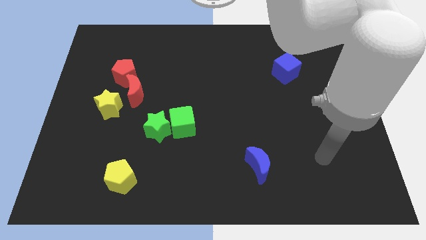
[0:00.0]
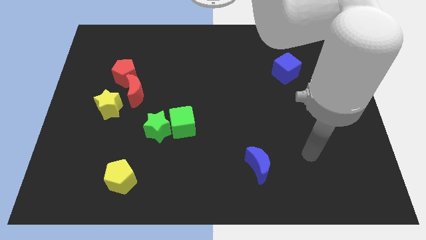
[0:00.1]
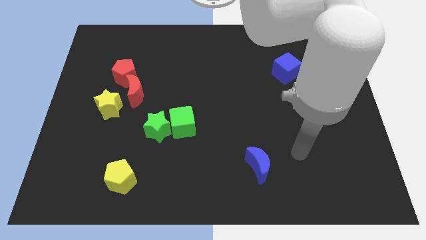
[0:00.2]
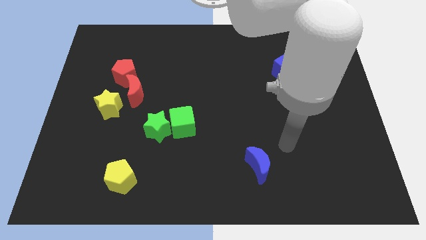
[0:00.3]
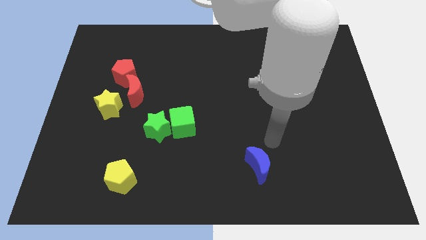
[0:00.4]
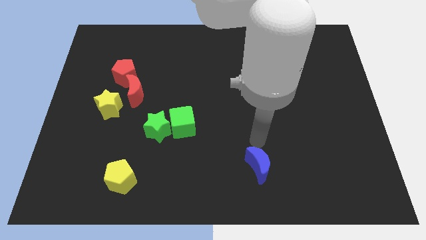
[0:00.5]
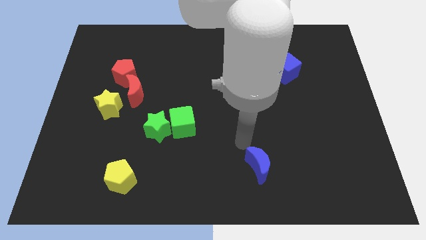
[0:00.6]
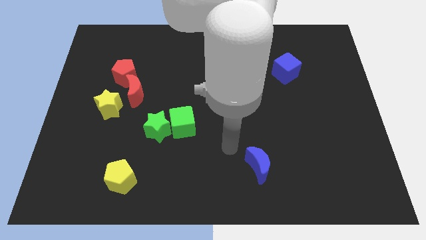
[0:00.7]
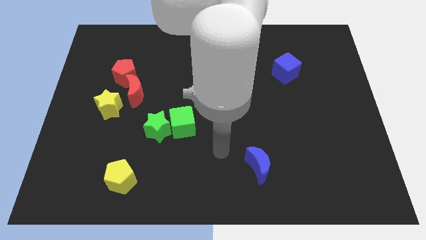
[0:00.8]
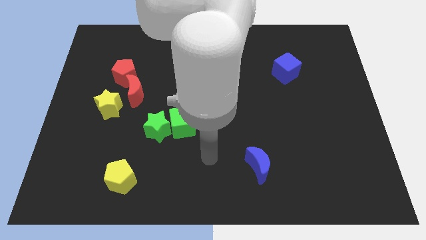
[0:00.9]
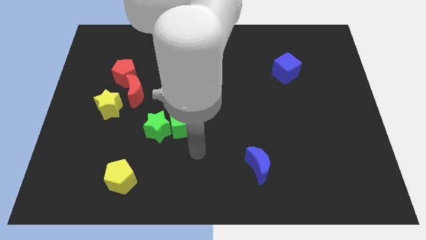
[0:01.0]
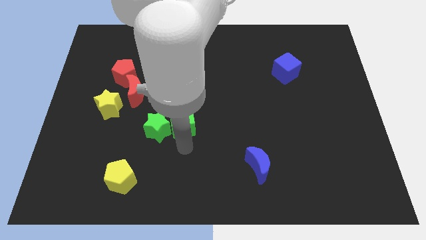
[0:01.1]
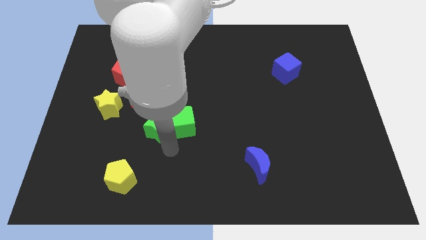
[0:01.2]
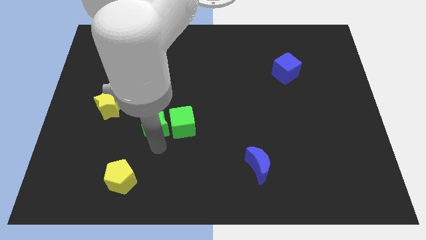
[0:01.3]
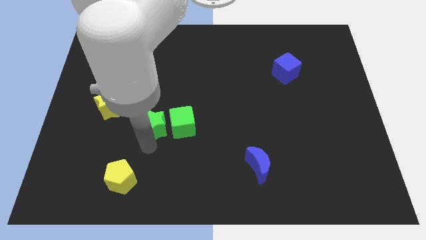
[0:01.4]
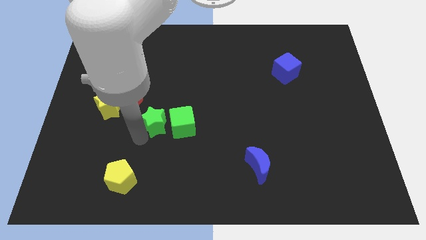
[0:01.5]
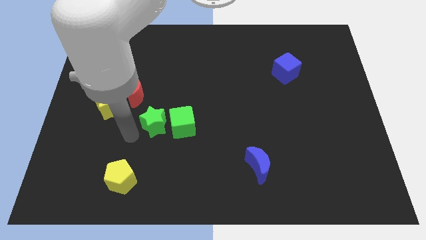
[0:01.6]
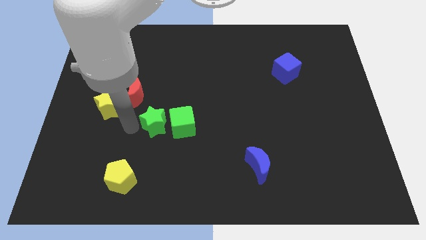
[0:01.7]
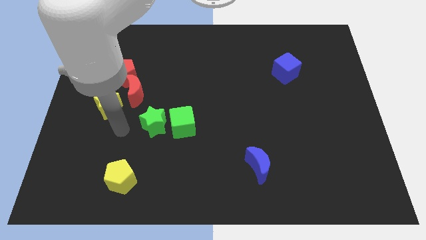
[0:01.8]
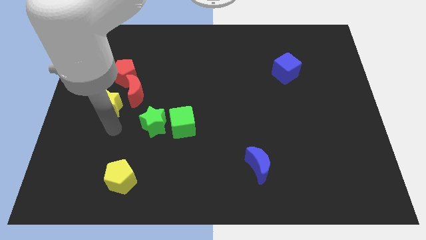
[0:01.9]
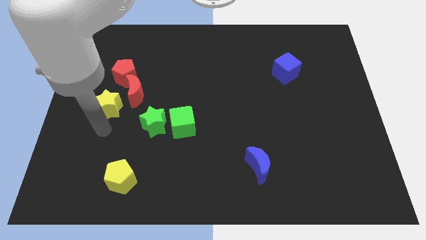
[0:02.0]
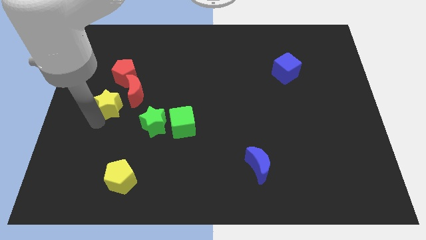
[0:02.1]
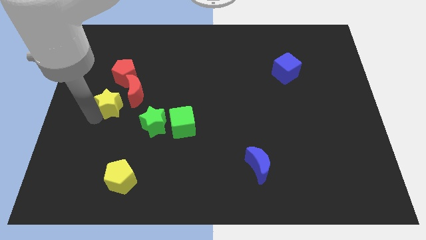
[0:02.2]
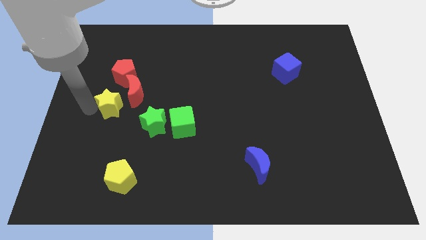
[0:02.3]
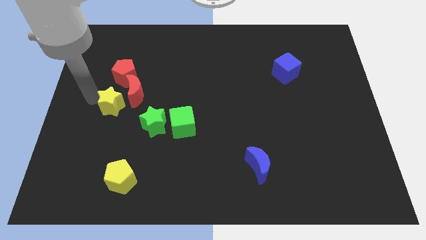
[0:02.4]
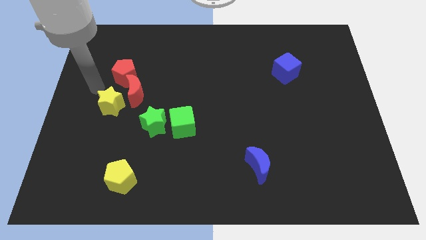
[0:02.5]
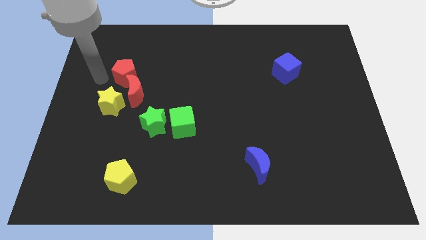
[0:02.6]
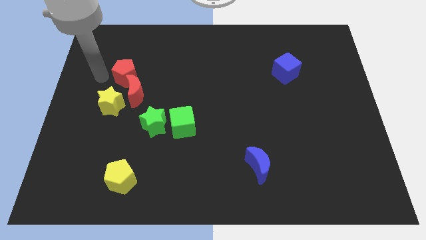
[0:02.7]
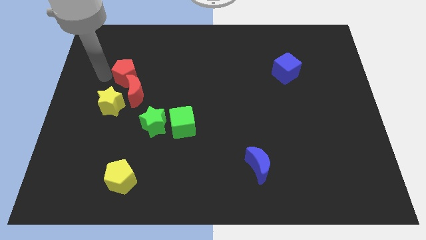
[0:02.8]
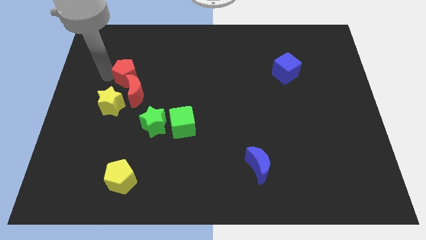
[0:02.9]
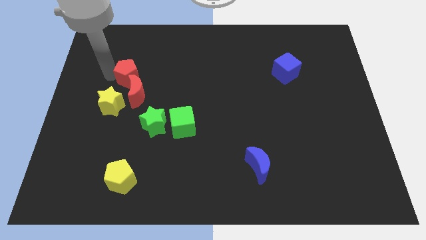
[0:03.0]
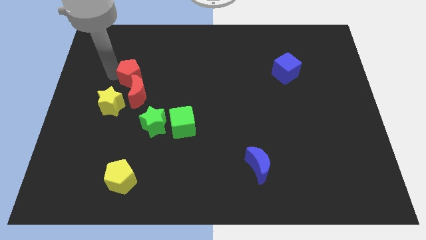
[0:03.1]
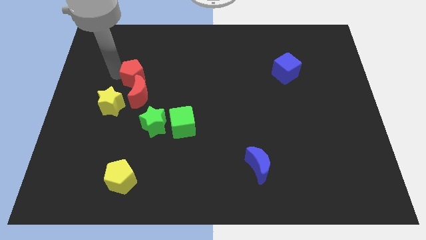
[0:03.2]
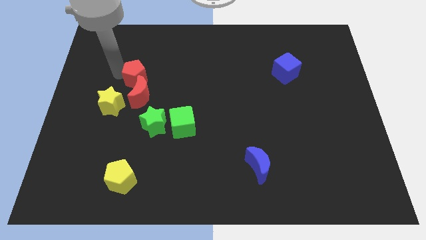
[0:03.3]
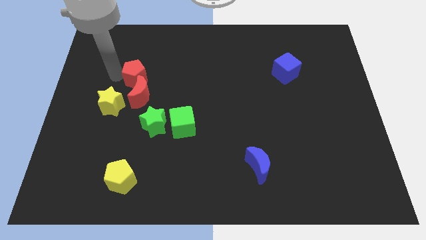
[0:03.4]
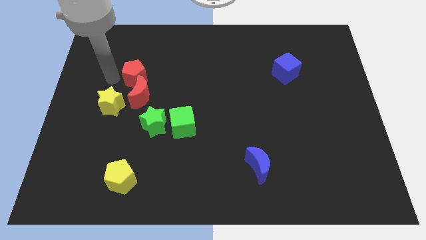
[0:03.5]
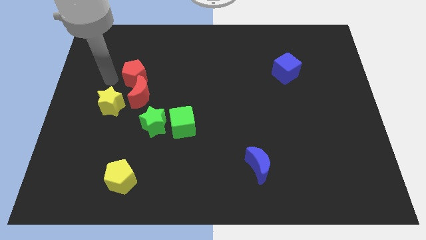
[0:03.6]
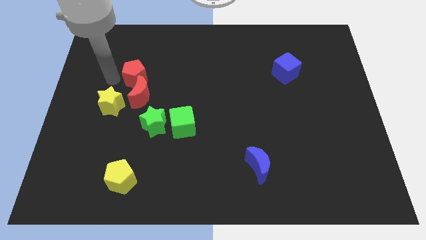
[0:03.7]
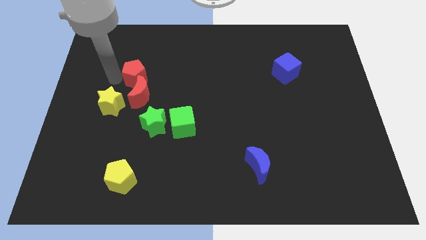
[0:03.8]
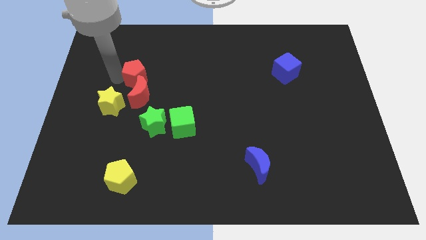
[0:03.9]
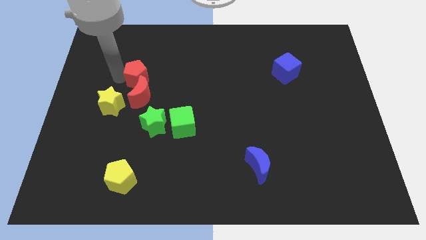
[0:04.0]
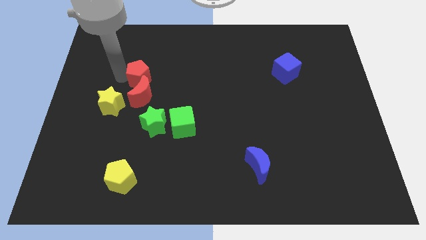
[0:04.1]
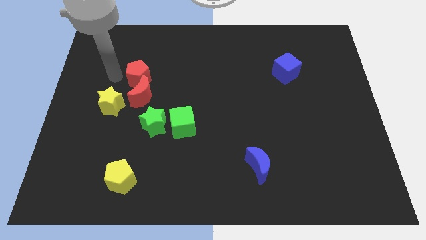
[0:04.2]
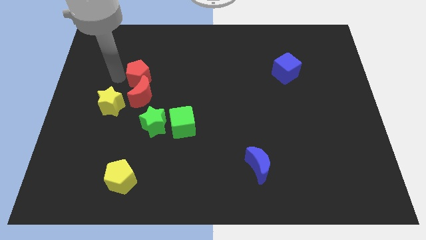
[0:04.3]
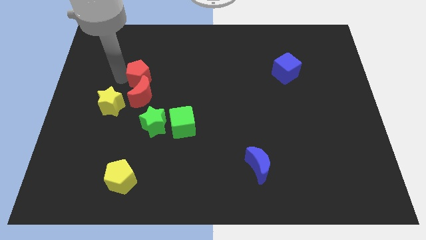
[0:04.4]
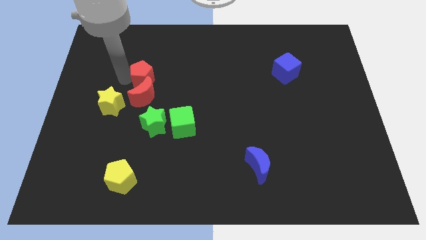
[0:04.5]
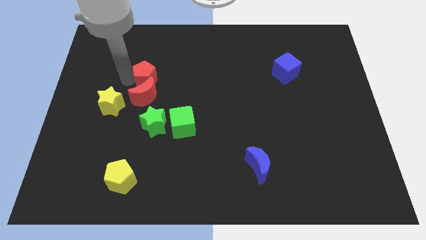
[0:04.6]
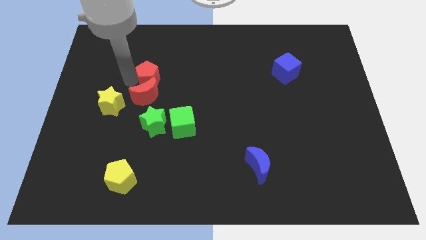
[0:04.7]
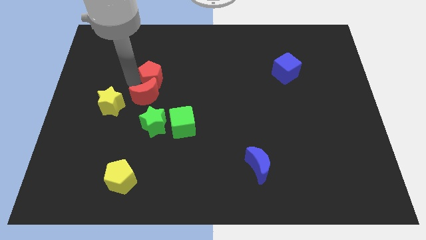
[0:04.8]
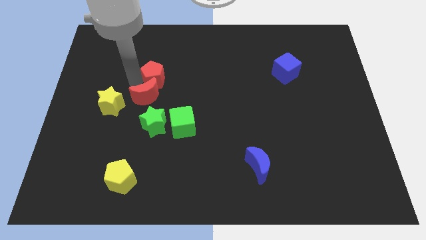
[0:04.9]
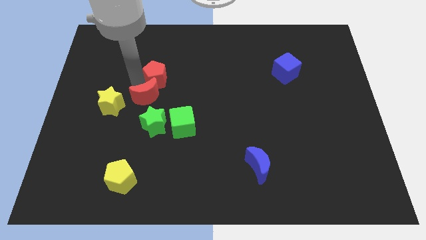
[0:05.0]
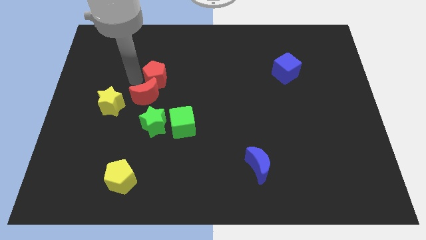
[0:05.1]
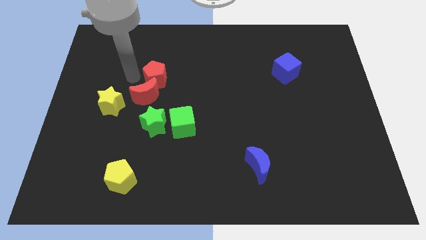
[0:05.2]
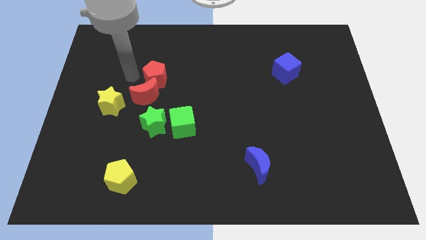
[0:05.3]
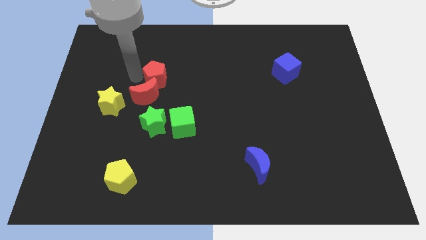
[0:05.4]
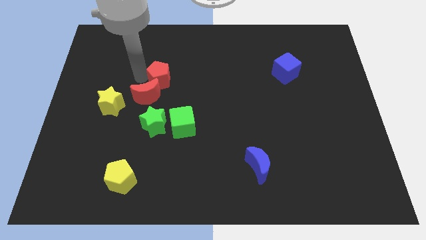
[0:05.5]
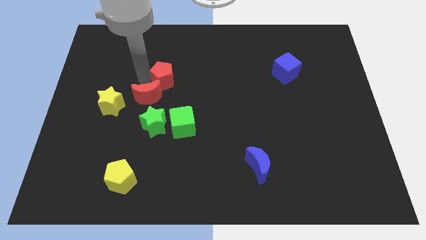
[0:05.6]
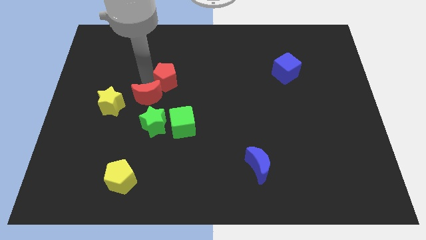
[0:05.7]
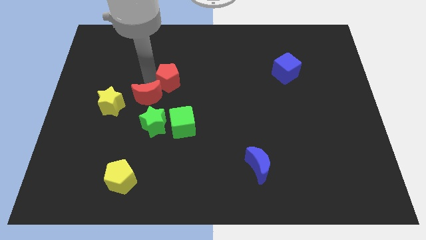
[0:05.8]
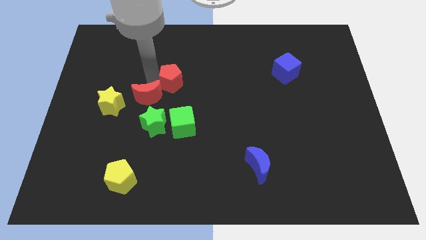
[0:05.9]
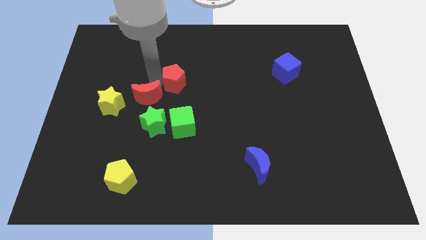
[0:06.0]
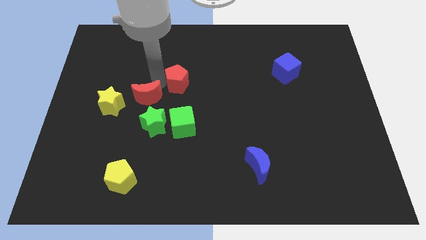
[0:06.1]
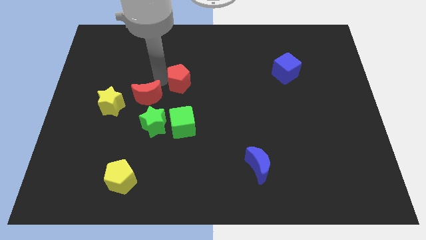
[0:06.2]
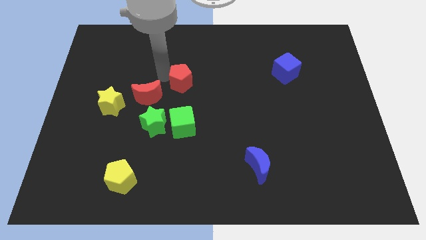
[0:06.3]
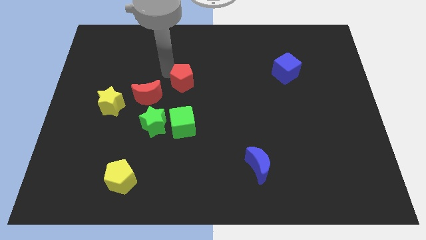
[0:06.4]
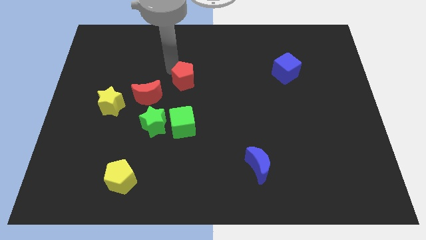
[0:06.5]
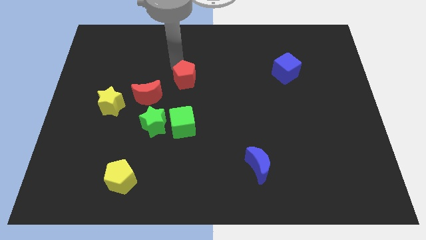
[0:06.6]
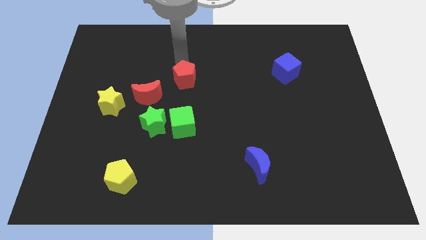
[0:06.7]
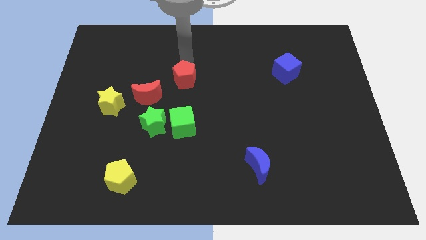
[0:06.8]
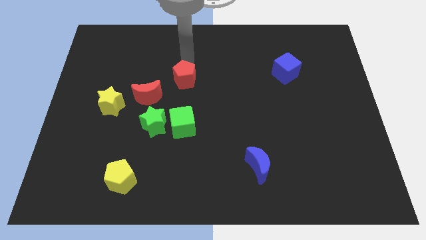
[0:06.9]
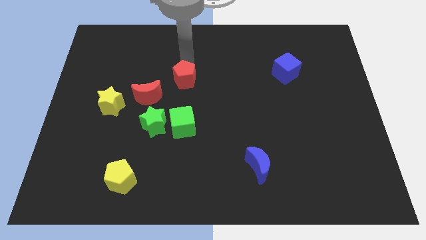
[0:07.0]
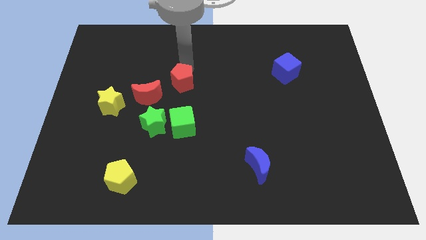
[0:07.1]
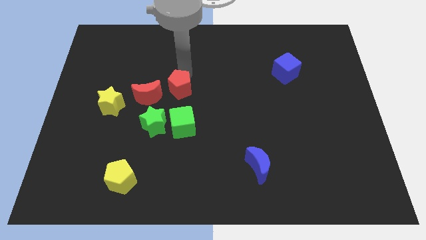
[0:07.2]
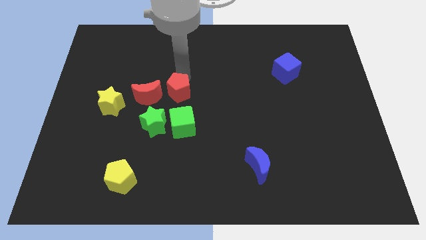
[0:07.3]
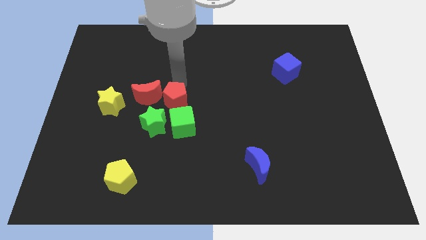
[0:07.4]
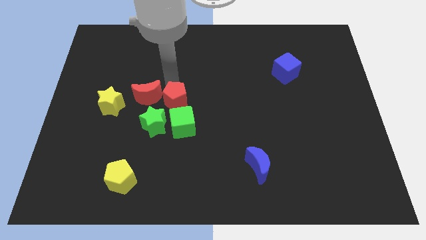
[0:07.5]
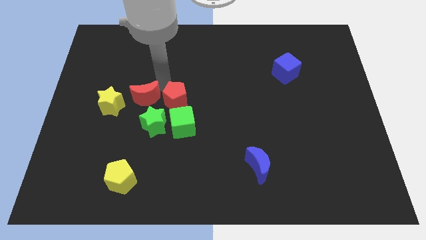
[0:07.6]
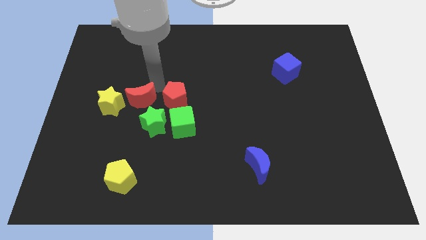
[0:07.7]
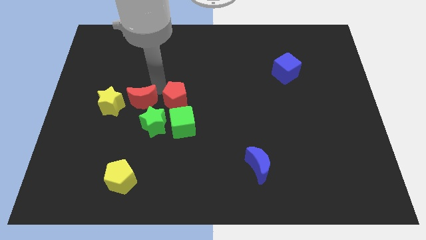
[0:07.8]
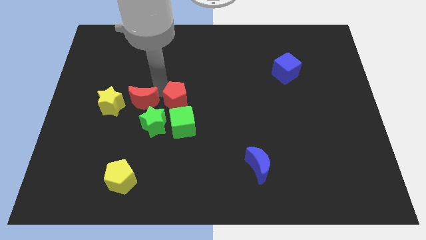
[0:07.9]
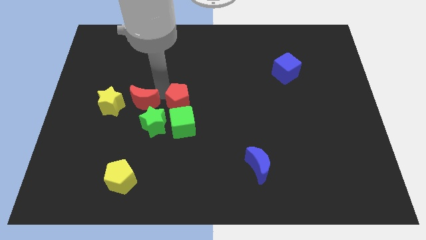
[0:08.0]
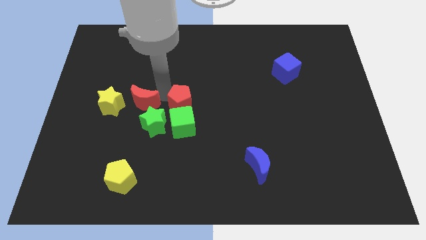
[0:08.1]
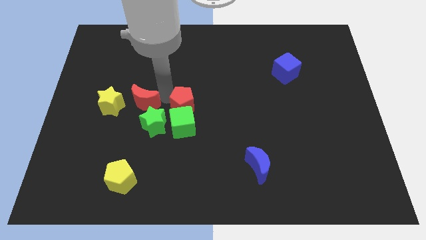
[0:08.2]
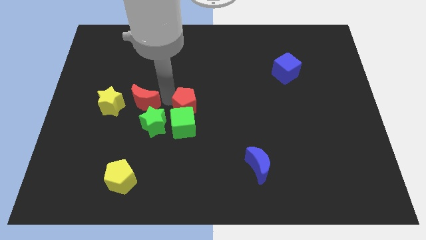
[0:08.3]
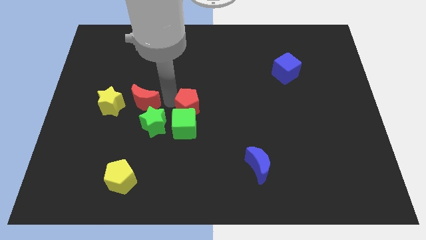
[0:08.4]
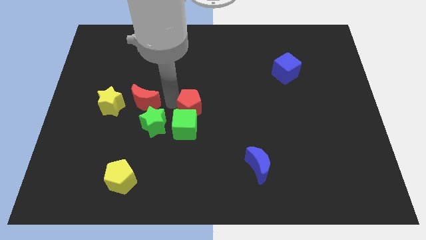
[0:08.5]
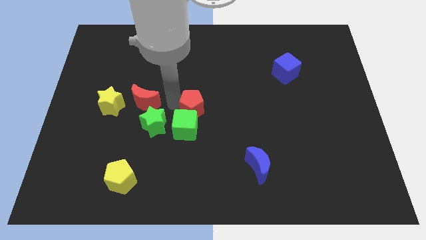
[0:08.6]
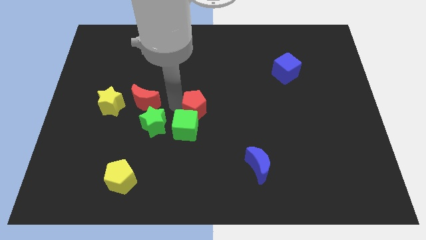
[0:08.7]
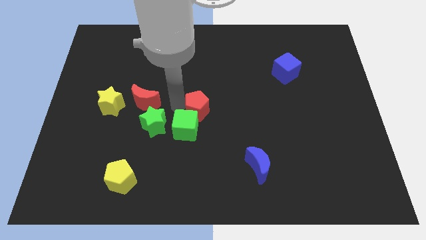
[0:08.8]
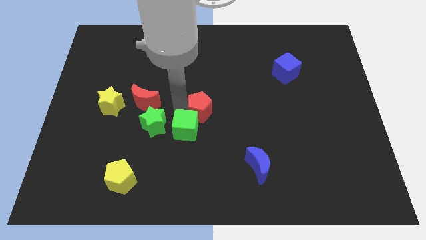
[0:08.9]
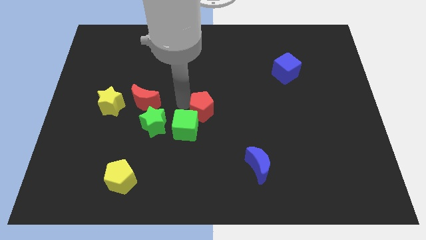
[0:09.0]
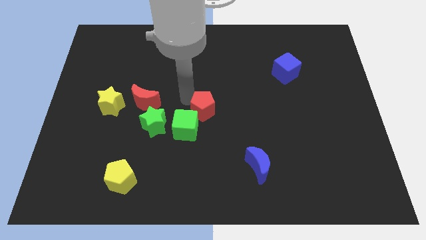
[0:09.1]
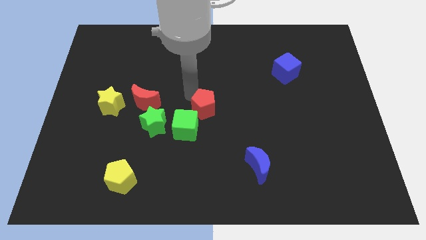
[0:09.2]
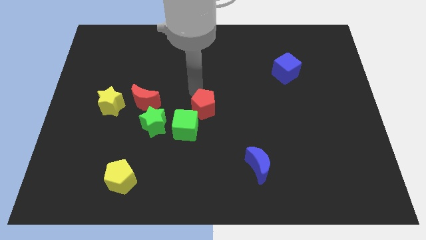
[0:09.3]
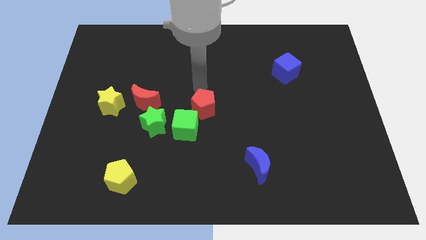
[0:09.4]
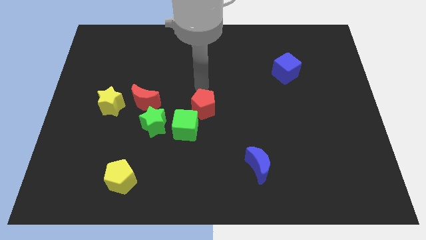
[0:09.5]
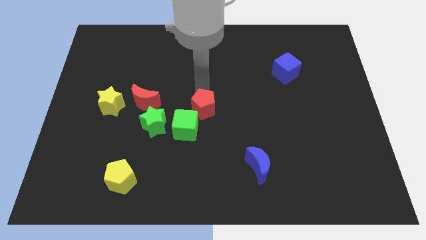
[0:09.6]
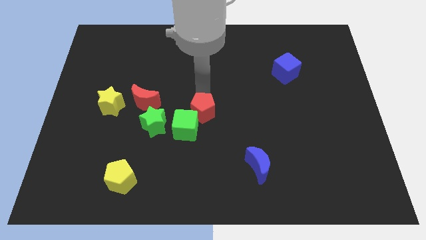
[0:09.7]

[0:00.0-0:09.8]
move the red pentagon downwards and right diagonally
